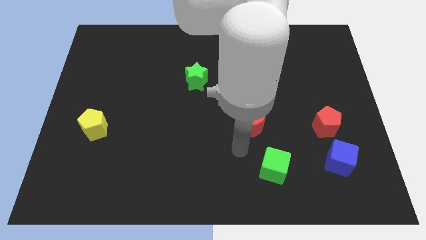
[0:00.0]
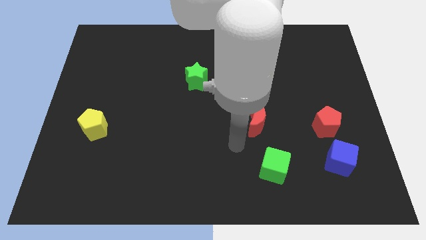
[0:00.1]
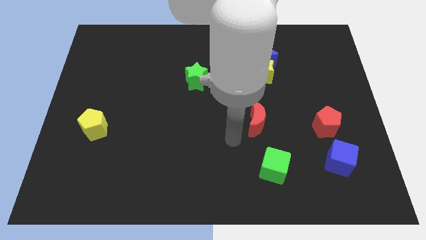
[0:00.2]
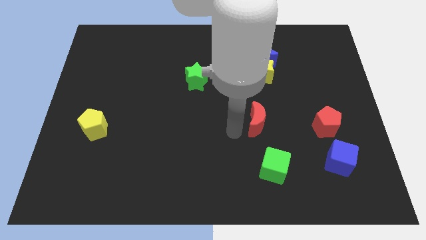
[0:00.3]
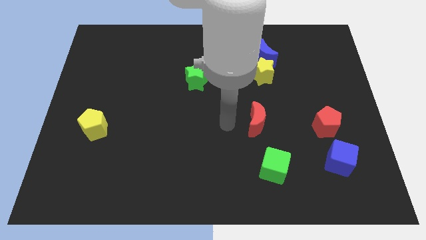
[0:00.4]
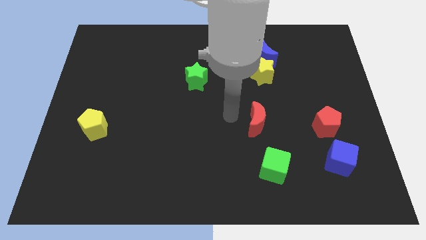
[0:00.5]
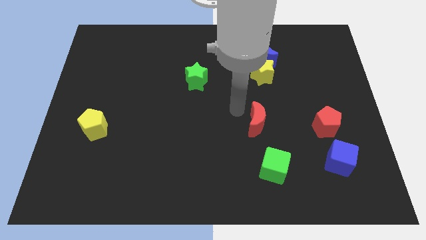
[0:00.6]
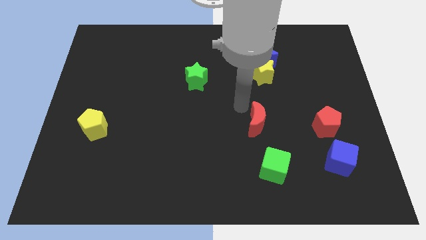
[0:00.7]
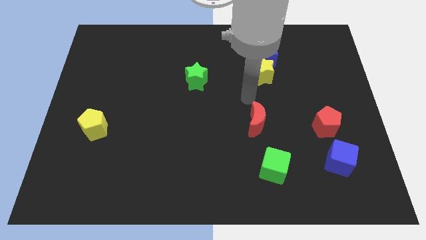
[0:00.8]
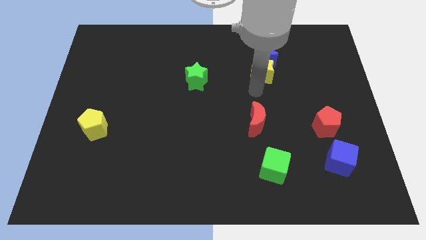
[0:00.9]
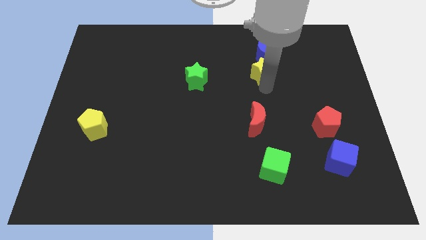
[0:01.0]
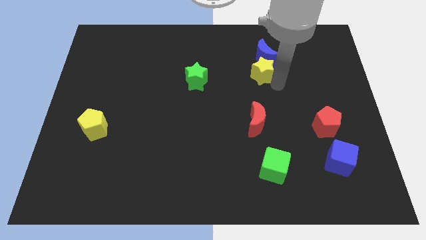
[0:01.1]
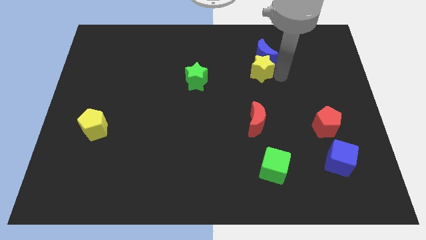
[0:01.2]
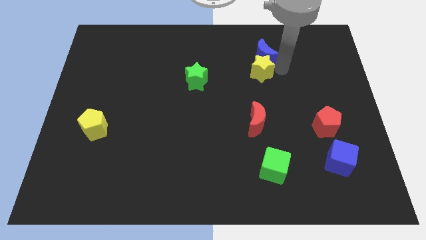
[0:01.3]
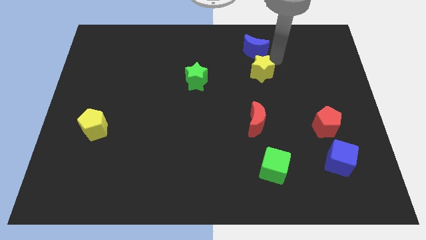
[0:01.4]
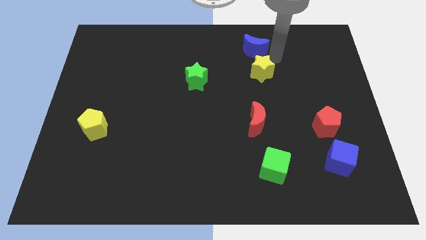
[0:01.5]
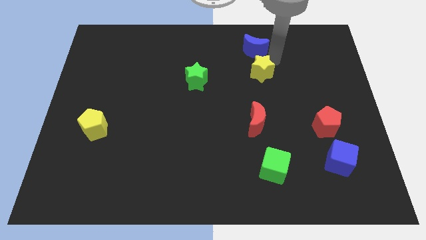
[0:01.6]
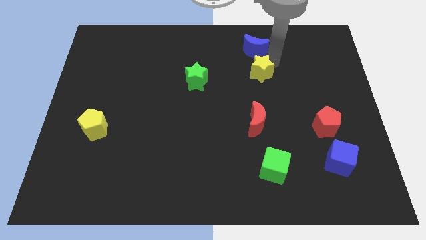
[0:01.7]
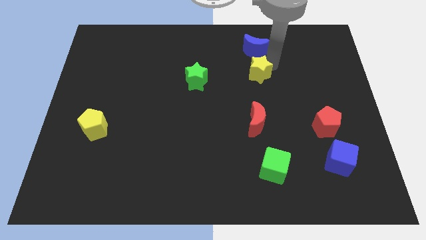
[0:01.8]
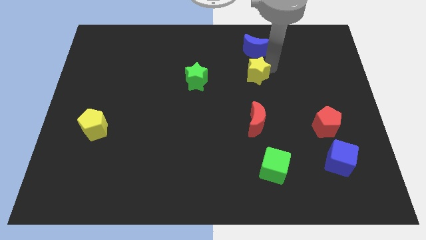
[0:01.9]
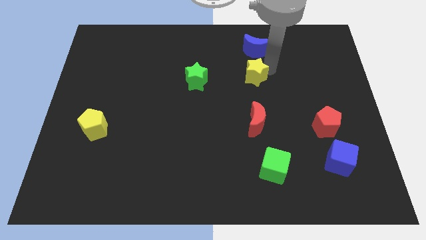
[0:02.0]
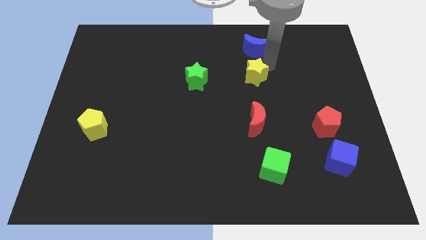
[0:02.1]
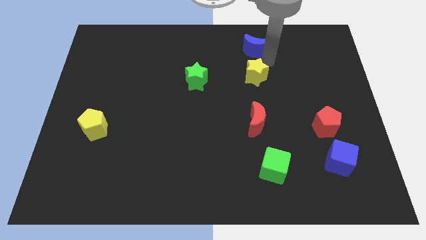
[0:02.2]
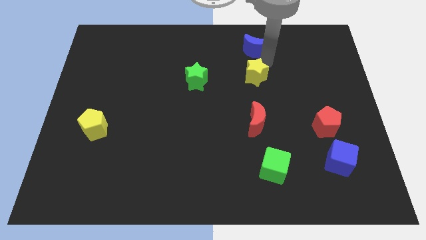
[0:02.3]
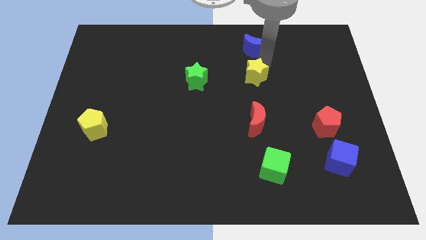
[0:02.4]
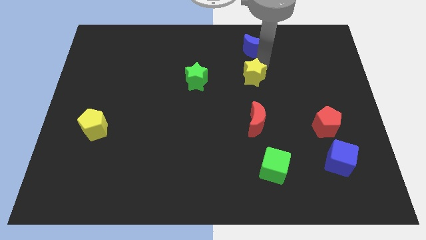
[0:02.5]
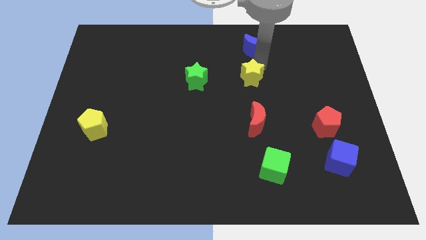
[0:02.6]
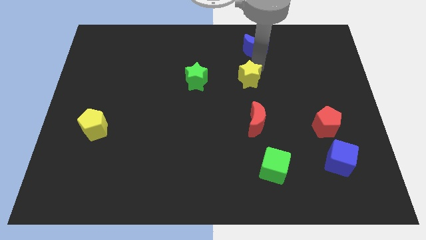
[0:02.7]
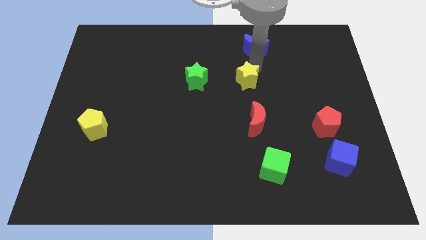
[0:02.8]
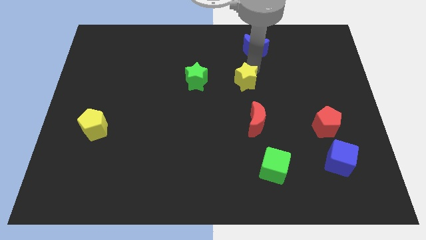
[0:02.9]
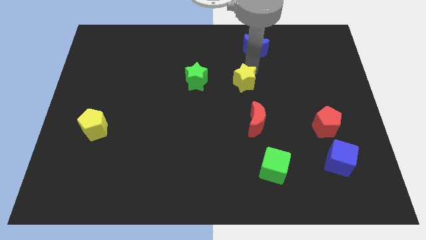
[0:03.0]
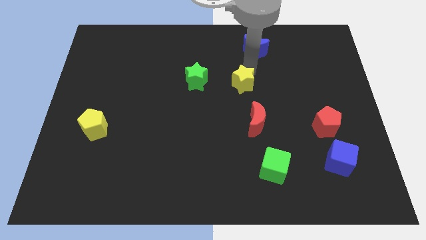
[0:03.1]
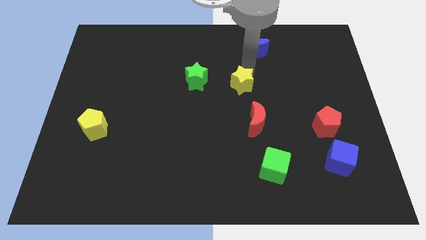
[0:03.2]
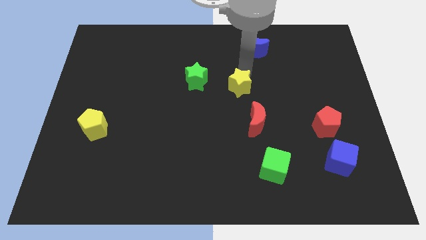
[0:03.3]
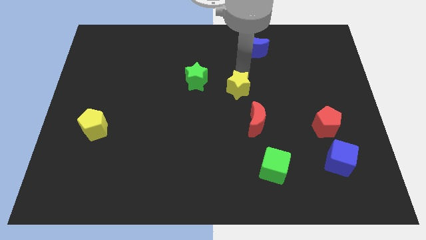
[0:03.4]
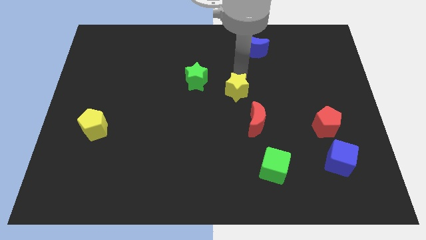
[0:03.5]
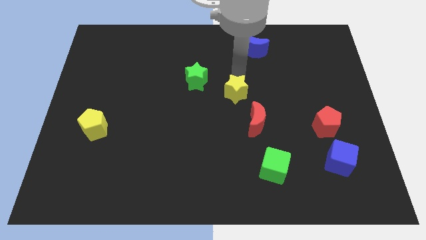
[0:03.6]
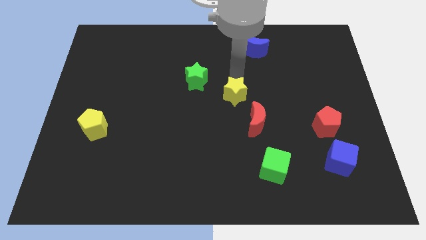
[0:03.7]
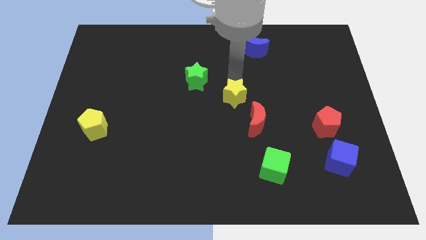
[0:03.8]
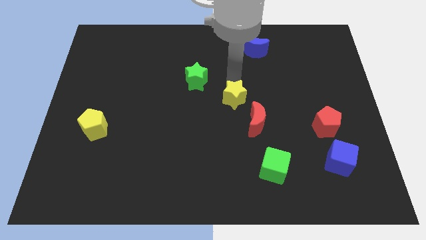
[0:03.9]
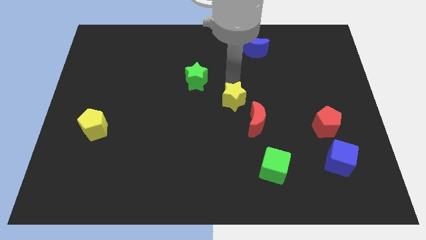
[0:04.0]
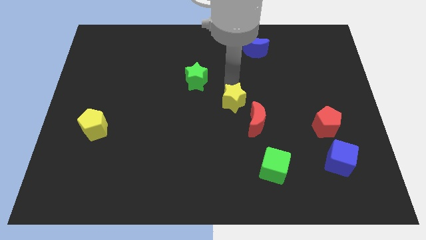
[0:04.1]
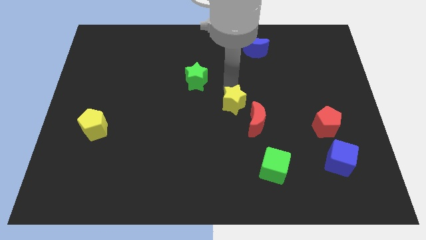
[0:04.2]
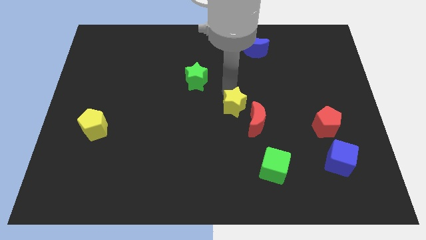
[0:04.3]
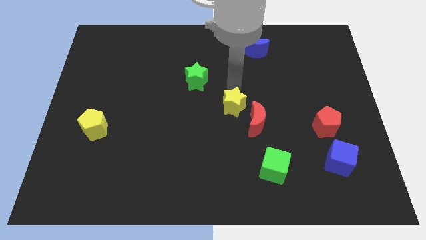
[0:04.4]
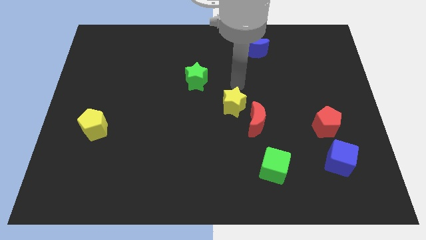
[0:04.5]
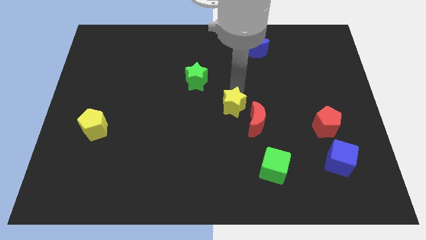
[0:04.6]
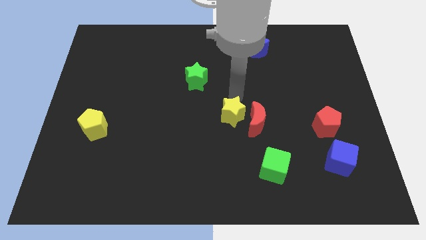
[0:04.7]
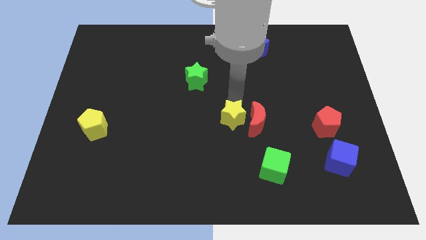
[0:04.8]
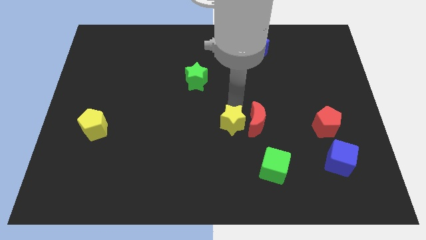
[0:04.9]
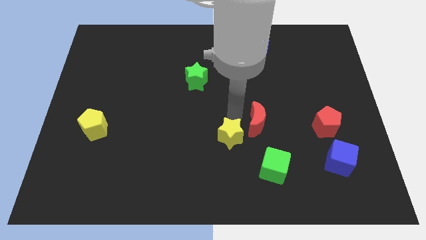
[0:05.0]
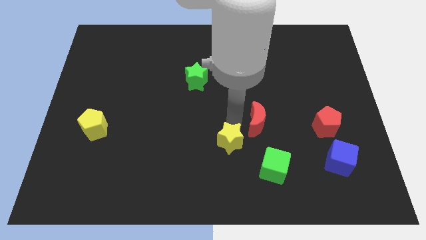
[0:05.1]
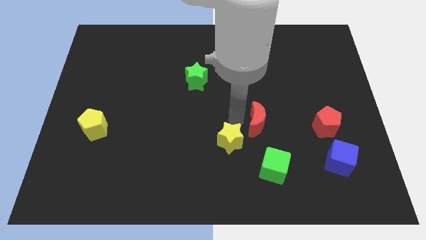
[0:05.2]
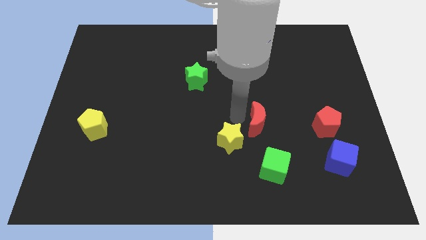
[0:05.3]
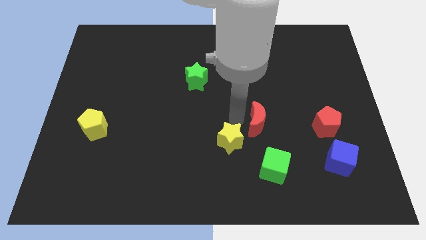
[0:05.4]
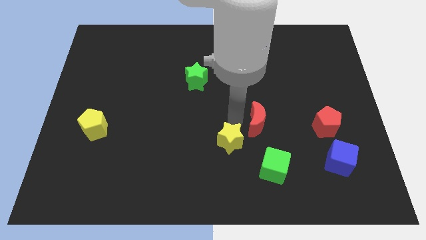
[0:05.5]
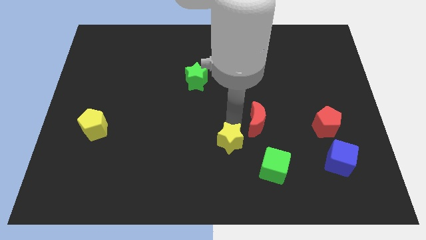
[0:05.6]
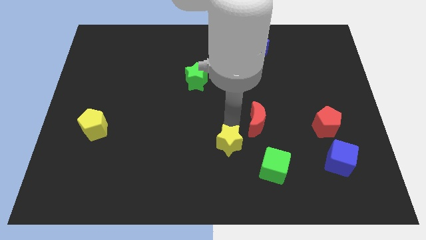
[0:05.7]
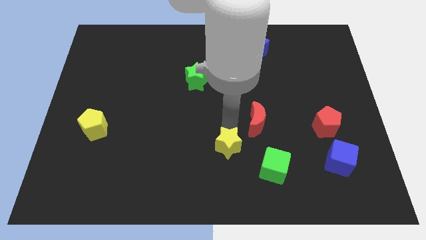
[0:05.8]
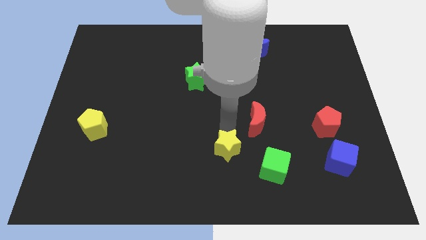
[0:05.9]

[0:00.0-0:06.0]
slide the yellow star just left of the green cube

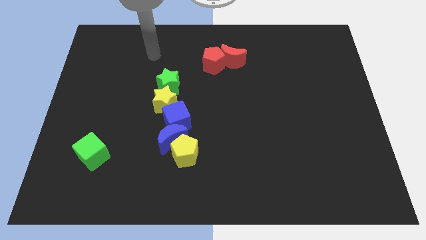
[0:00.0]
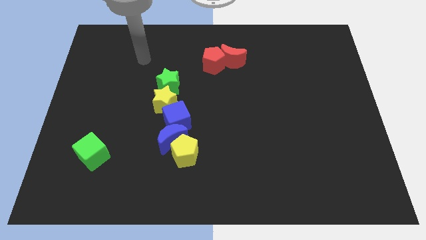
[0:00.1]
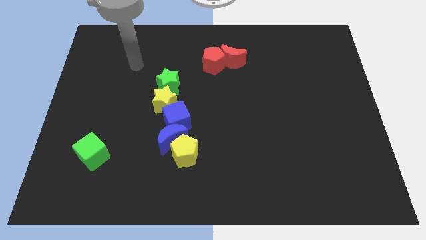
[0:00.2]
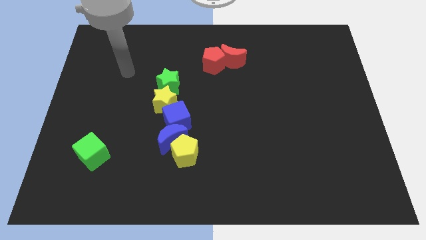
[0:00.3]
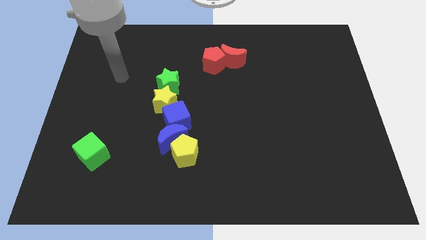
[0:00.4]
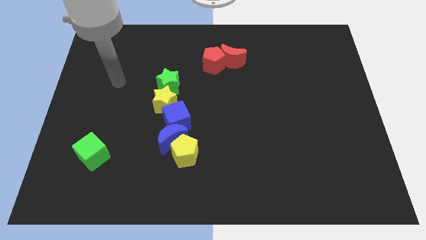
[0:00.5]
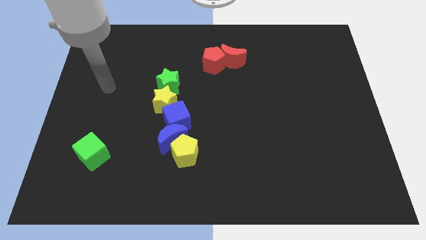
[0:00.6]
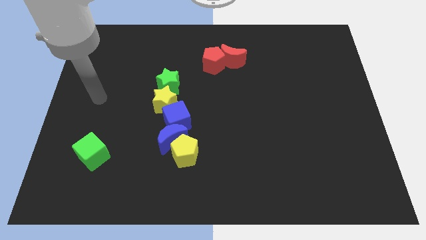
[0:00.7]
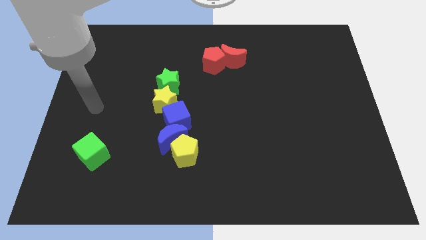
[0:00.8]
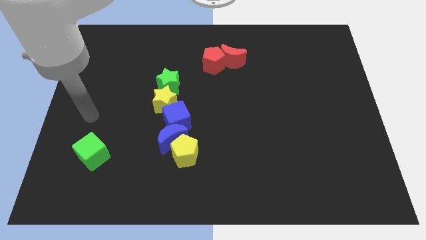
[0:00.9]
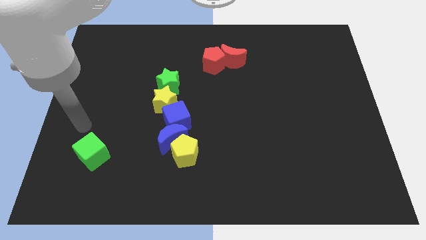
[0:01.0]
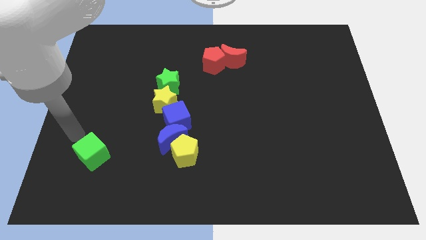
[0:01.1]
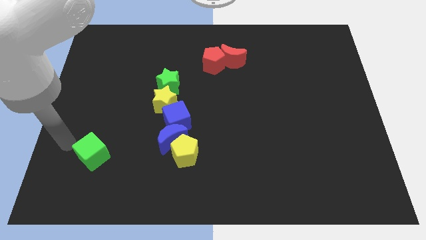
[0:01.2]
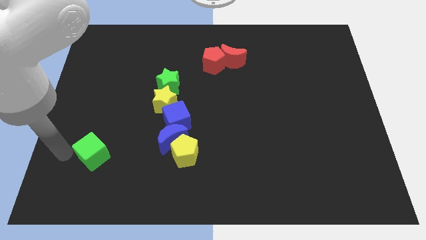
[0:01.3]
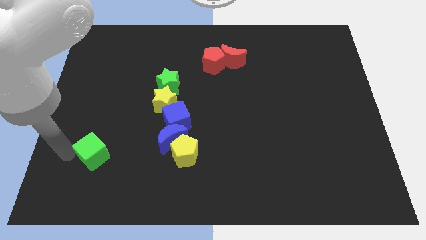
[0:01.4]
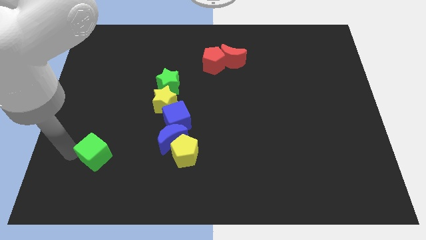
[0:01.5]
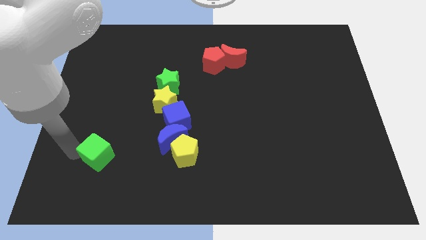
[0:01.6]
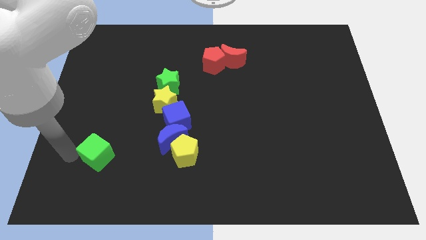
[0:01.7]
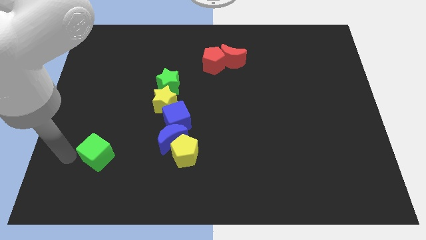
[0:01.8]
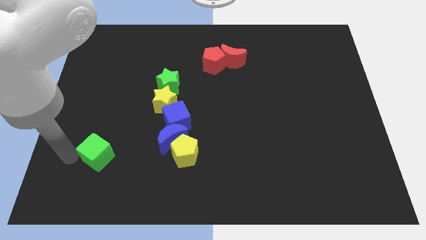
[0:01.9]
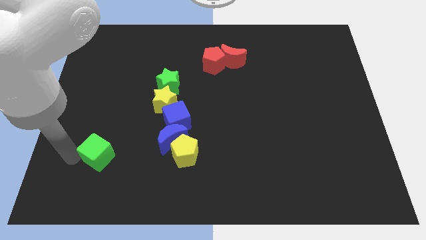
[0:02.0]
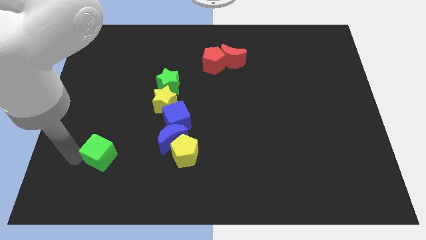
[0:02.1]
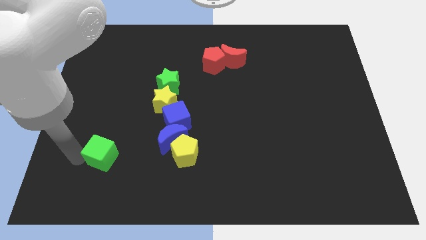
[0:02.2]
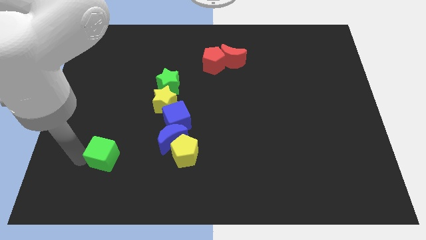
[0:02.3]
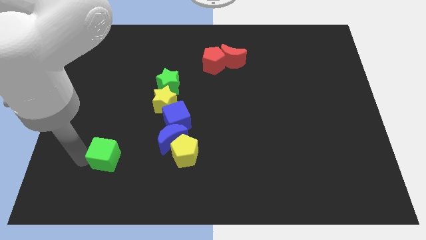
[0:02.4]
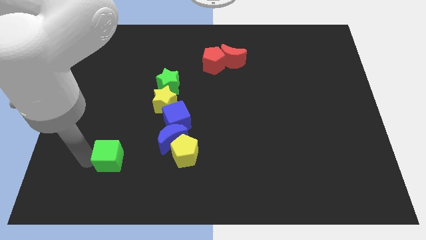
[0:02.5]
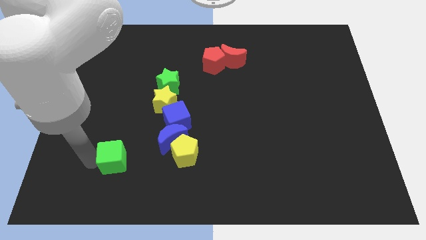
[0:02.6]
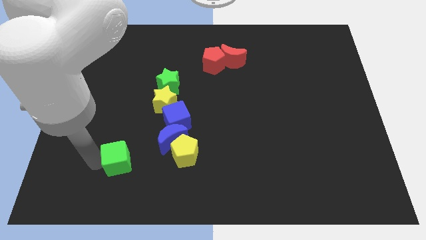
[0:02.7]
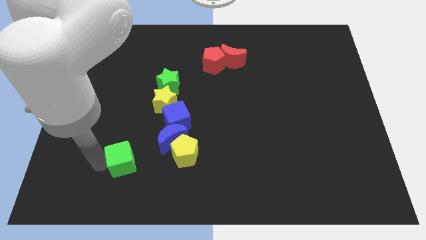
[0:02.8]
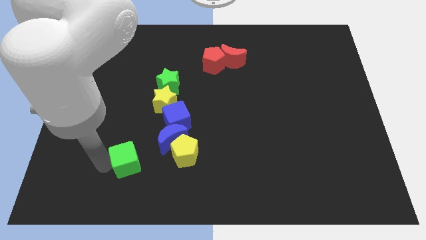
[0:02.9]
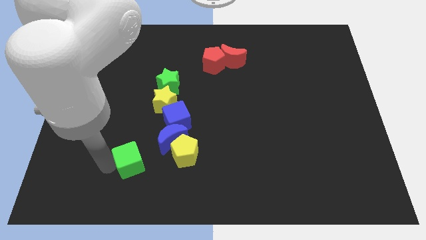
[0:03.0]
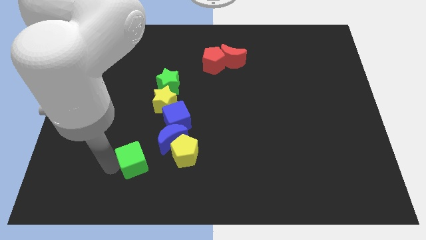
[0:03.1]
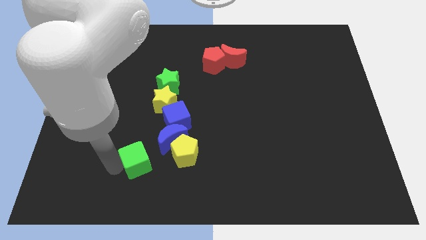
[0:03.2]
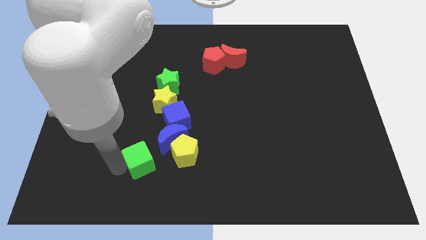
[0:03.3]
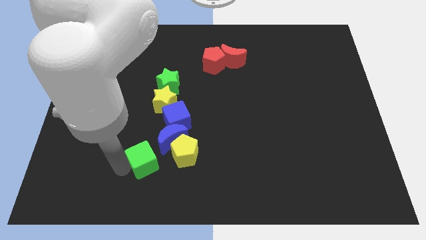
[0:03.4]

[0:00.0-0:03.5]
put the green cube diagonally down and to the left of the blue cube
